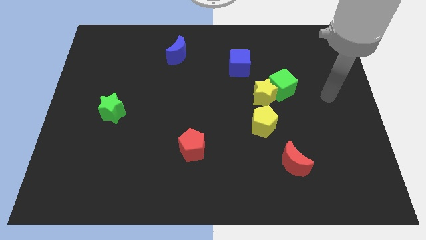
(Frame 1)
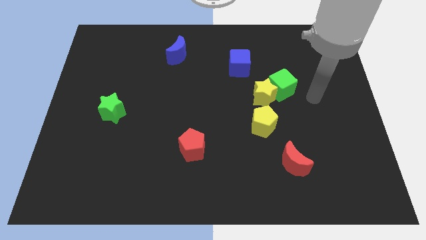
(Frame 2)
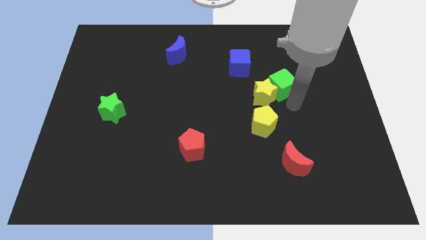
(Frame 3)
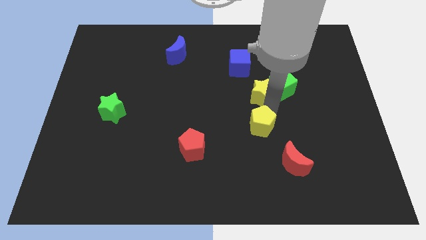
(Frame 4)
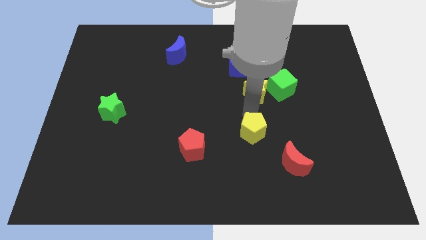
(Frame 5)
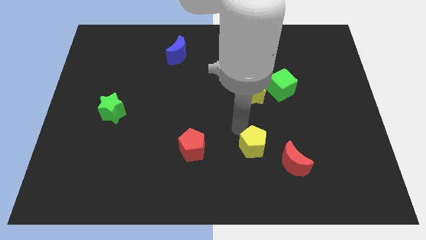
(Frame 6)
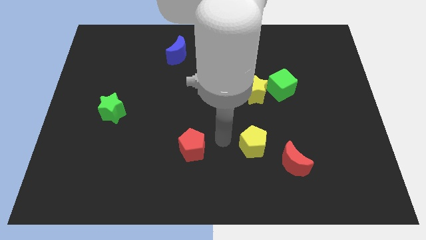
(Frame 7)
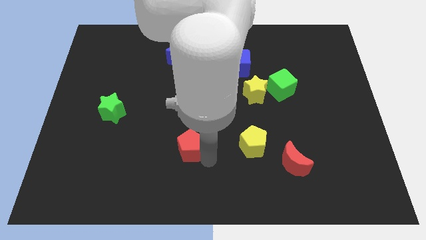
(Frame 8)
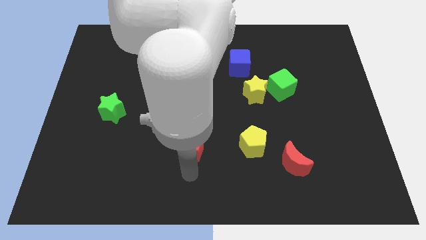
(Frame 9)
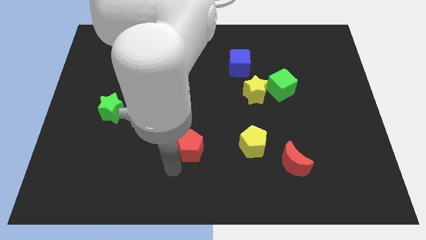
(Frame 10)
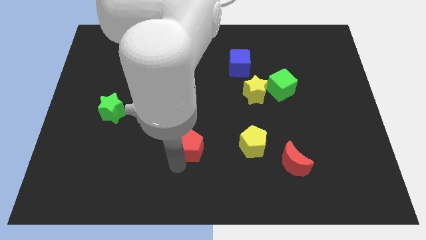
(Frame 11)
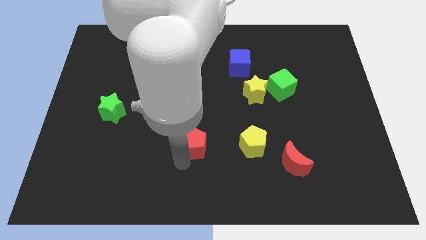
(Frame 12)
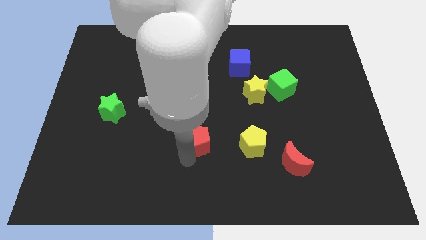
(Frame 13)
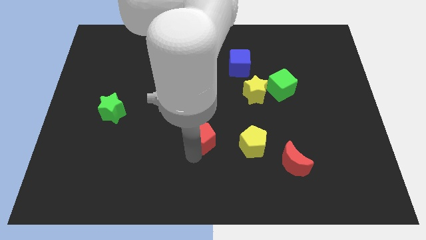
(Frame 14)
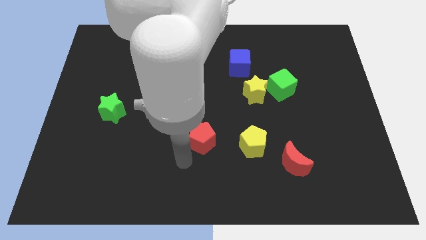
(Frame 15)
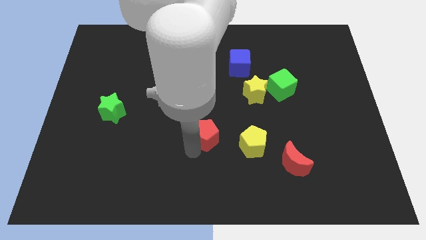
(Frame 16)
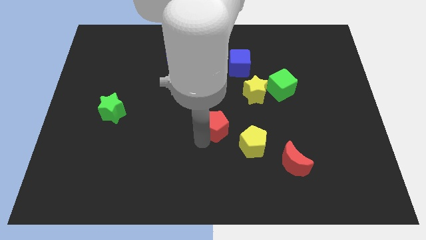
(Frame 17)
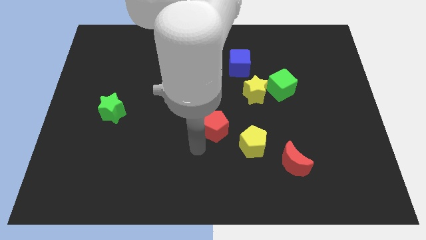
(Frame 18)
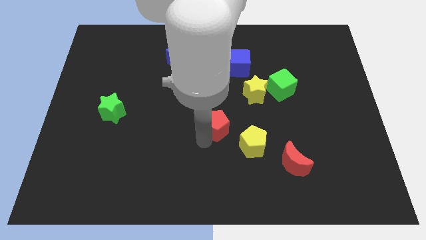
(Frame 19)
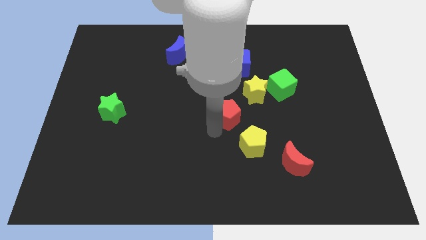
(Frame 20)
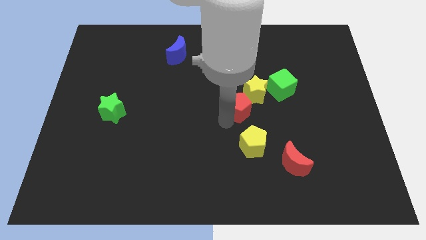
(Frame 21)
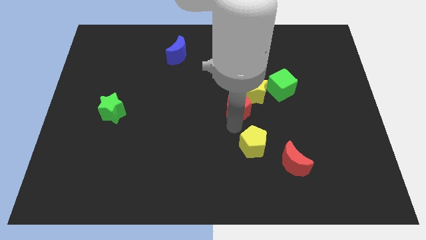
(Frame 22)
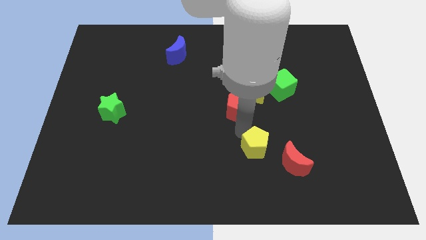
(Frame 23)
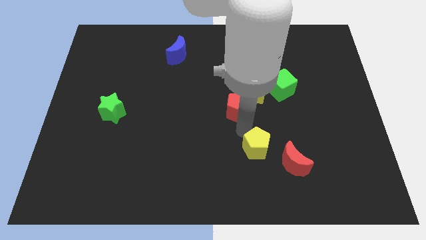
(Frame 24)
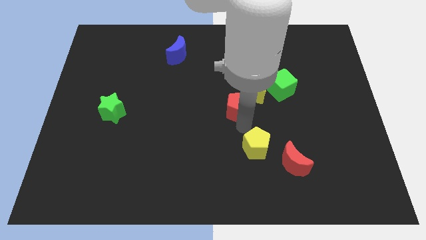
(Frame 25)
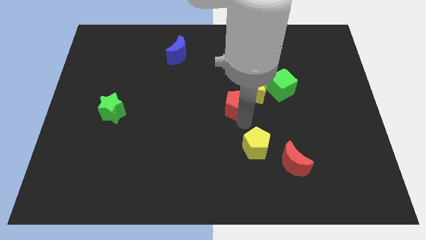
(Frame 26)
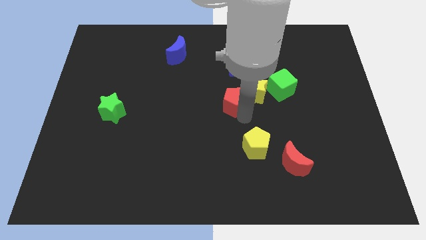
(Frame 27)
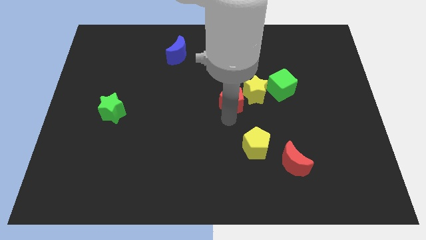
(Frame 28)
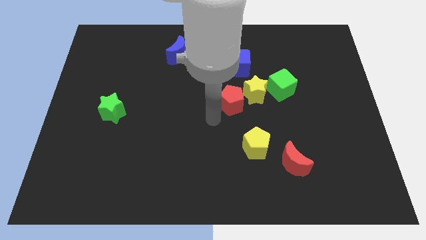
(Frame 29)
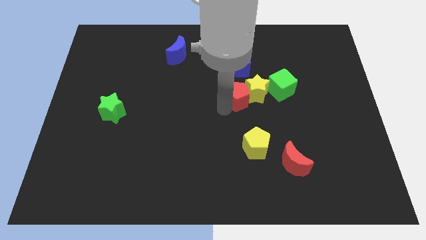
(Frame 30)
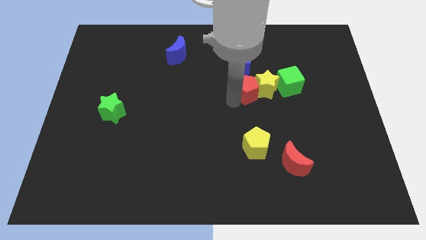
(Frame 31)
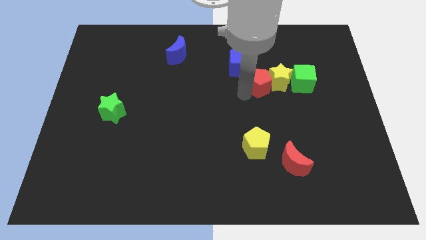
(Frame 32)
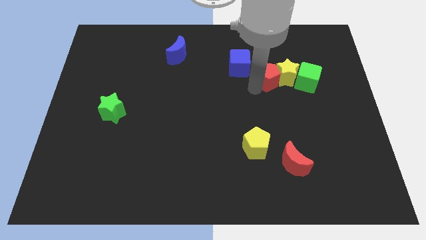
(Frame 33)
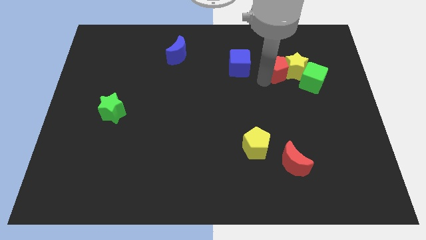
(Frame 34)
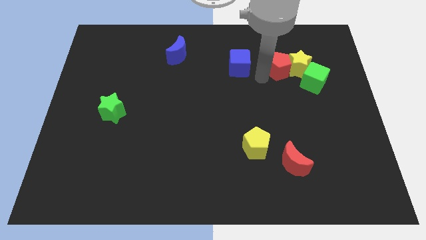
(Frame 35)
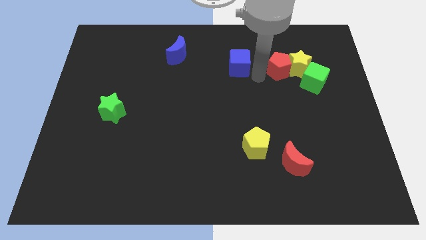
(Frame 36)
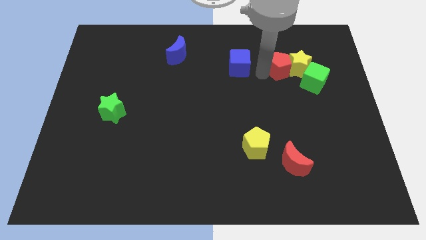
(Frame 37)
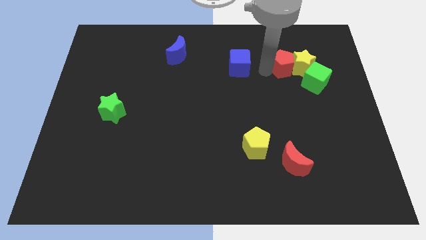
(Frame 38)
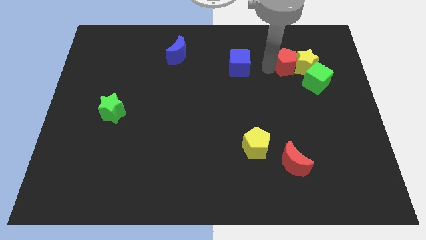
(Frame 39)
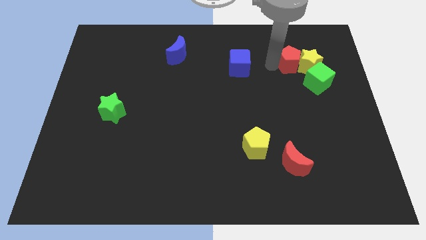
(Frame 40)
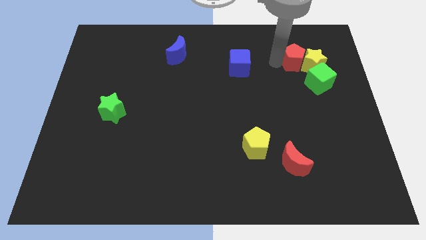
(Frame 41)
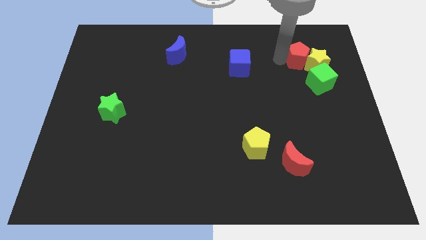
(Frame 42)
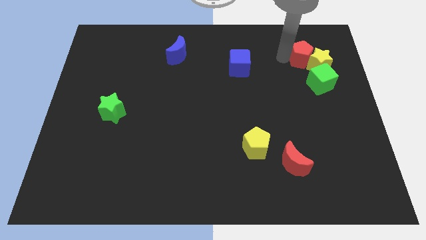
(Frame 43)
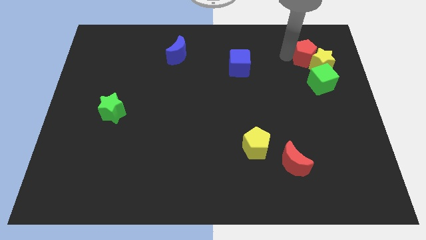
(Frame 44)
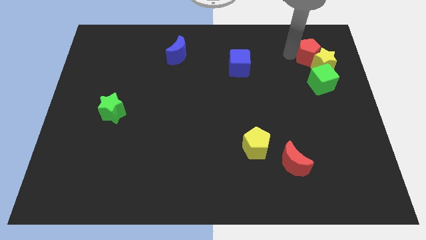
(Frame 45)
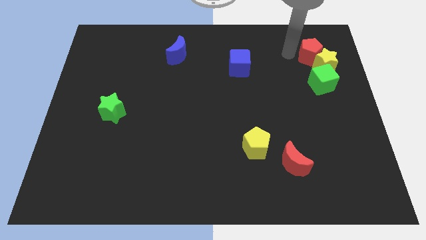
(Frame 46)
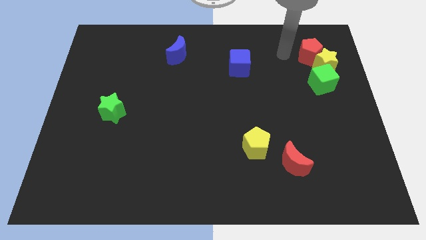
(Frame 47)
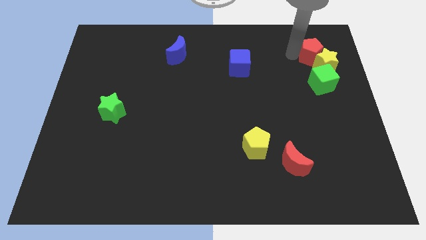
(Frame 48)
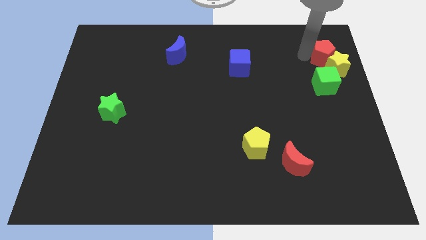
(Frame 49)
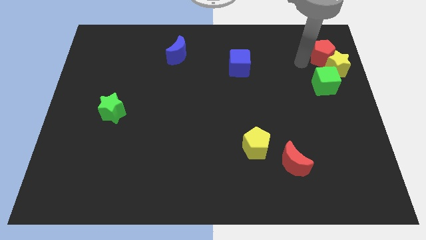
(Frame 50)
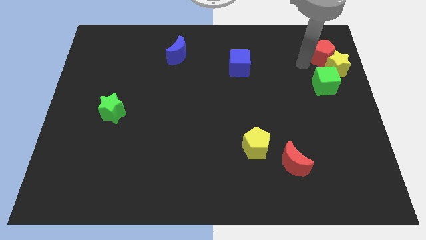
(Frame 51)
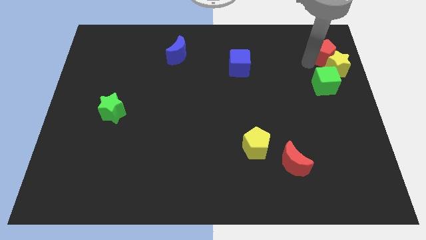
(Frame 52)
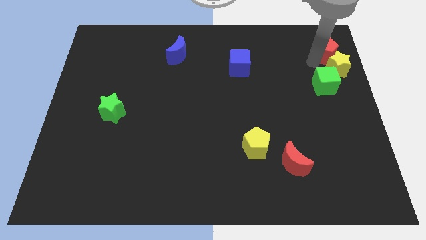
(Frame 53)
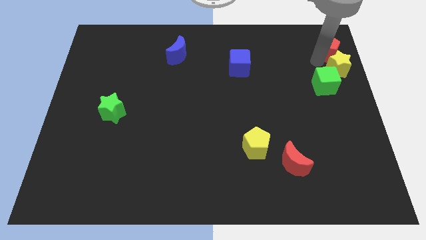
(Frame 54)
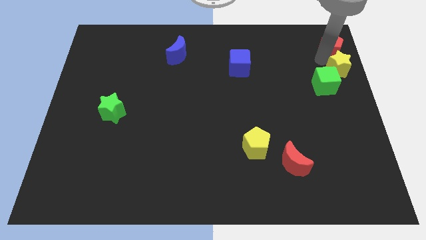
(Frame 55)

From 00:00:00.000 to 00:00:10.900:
move the red pentagon to the upper right corner
